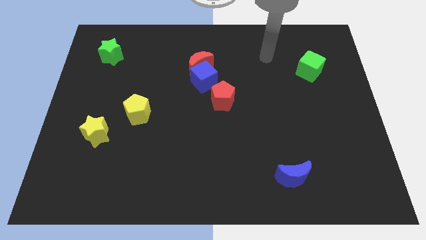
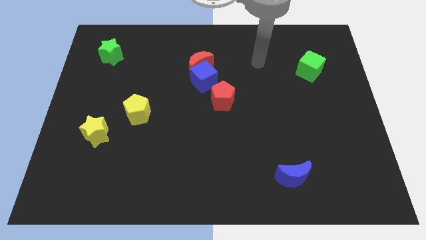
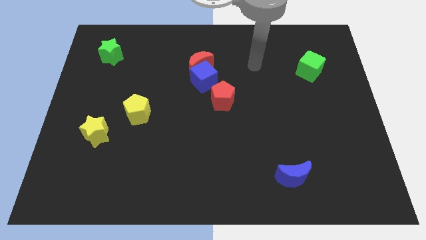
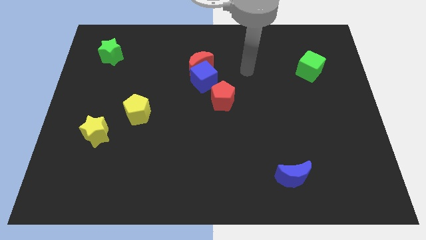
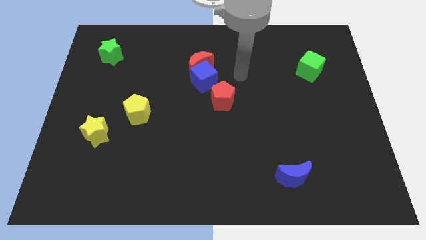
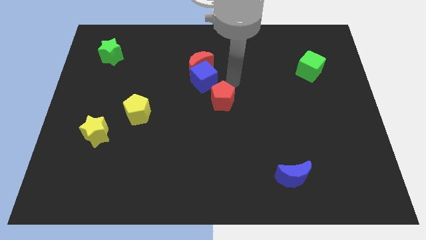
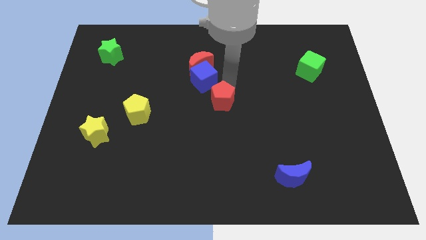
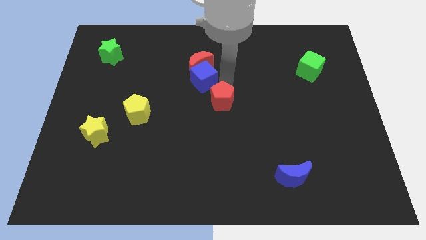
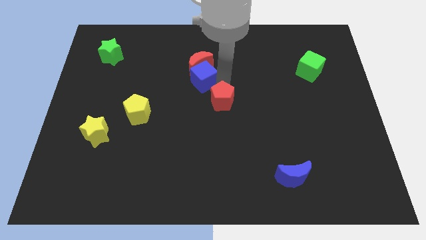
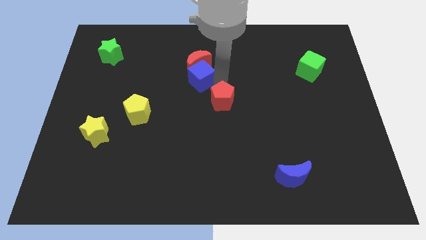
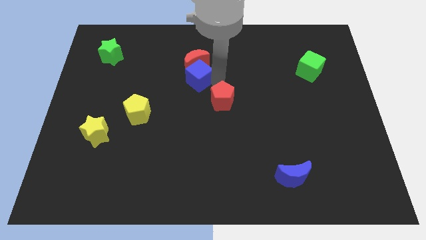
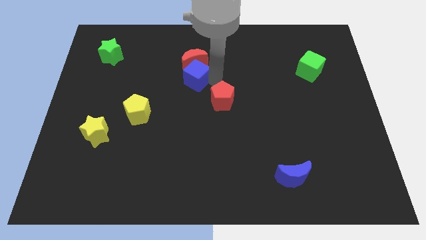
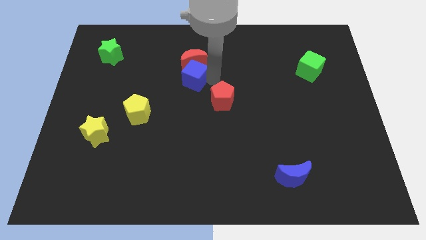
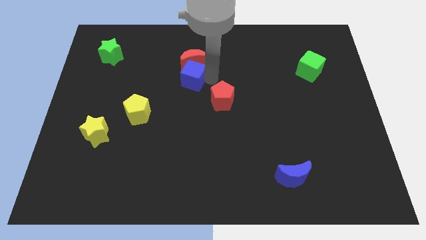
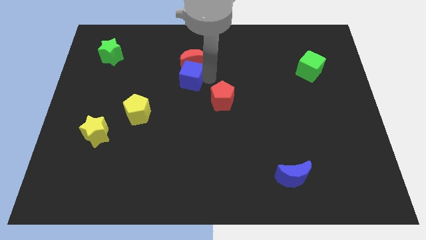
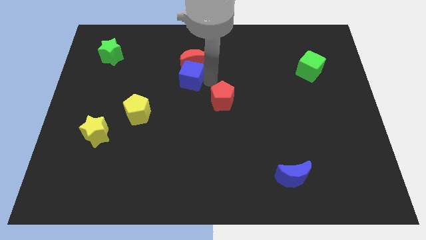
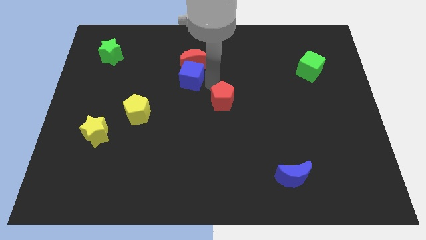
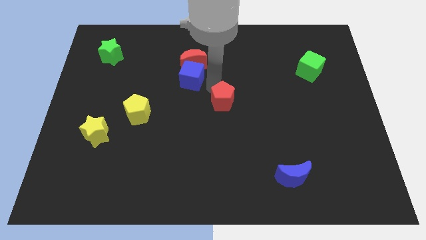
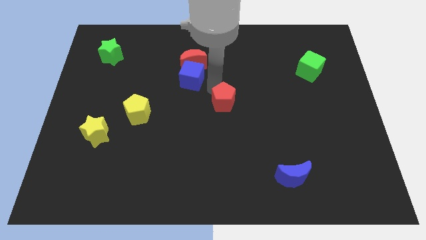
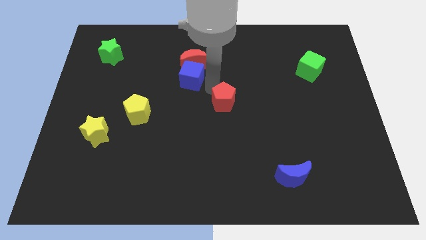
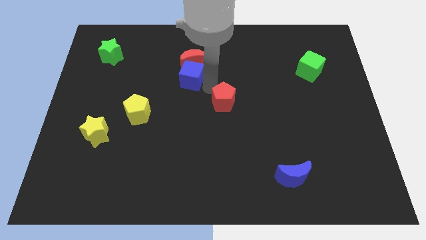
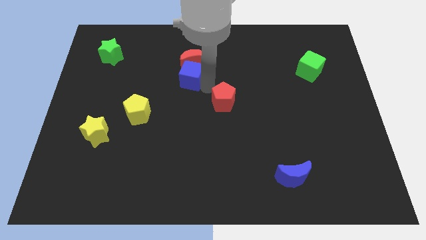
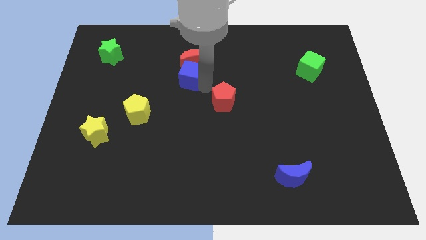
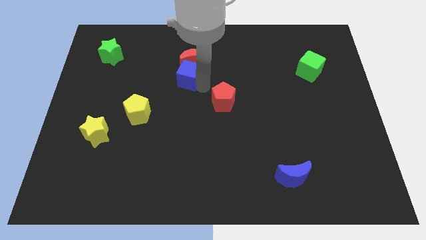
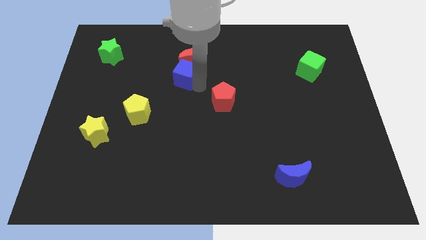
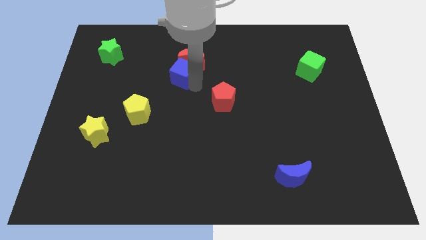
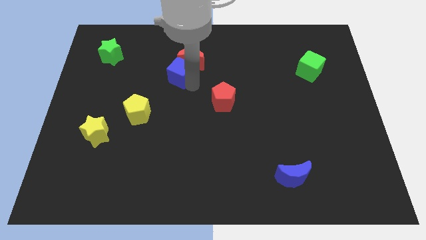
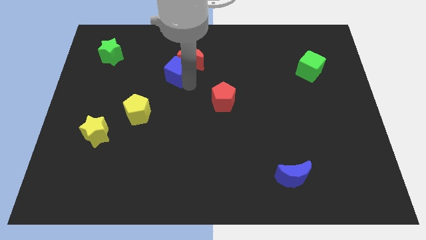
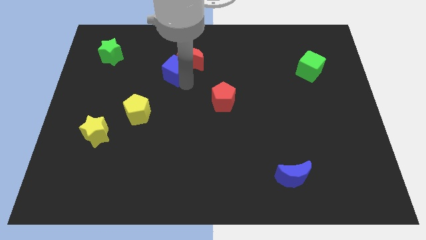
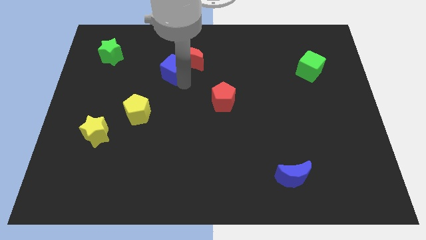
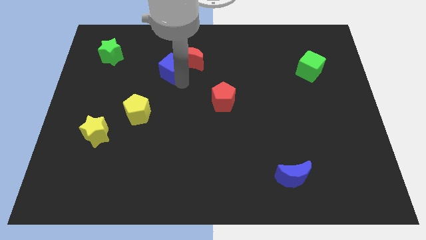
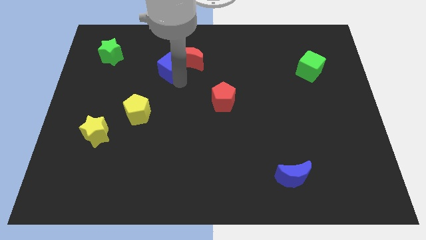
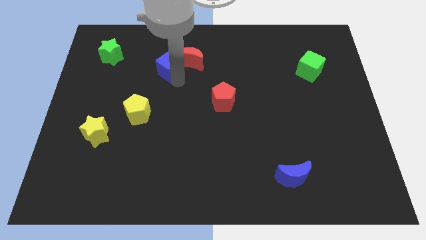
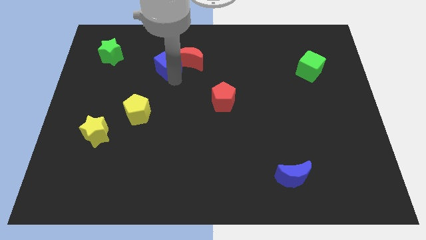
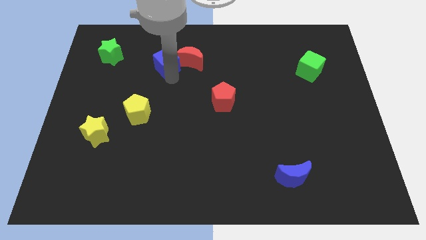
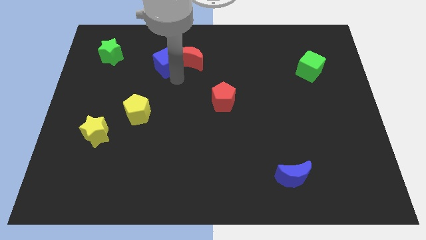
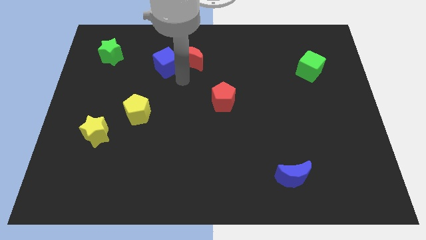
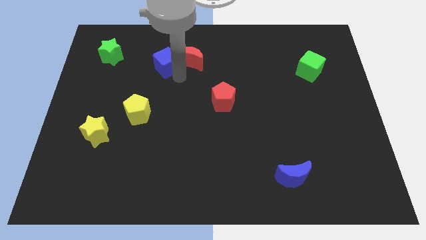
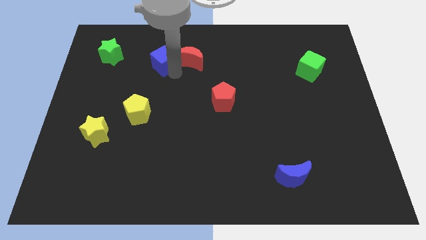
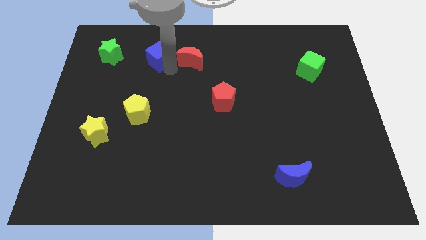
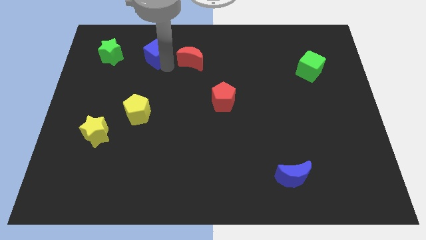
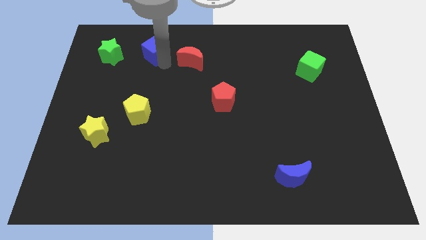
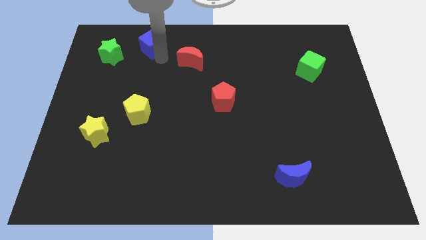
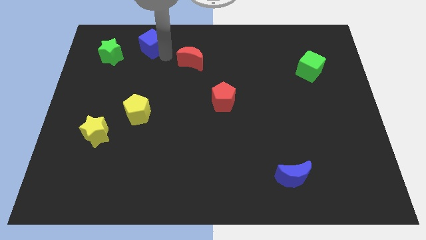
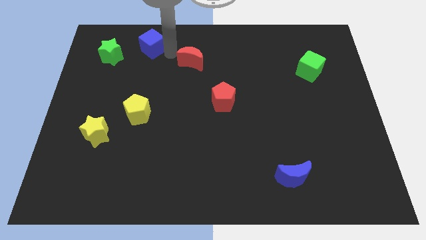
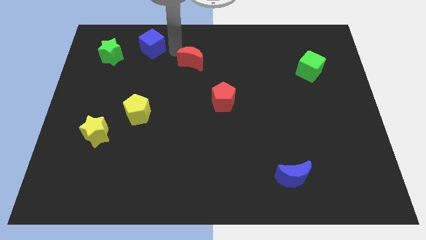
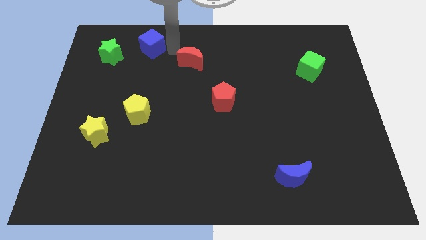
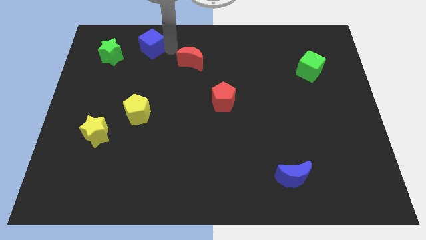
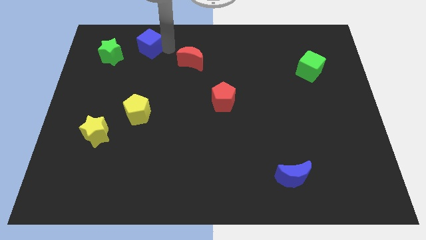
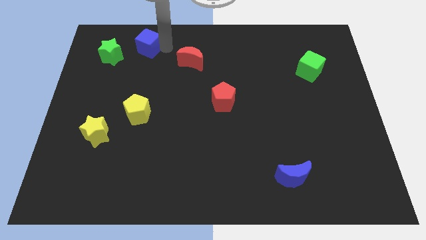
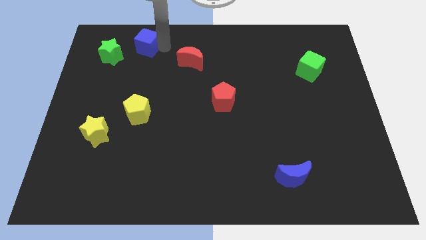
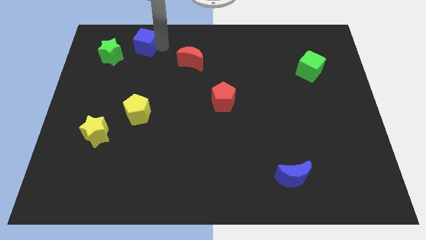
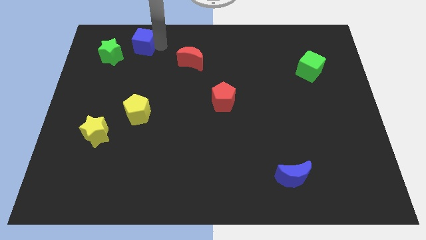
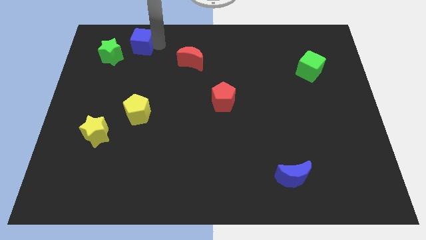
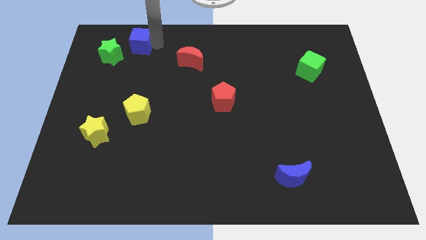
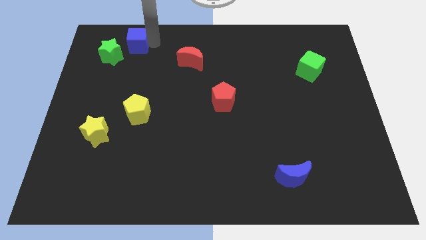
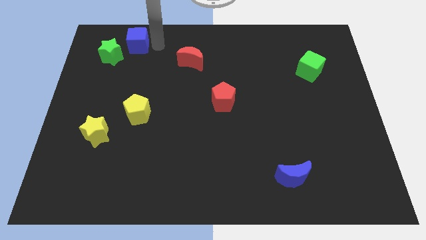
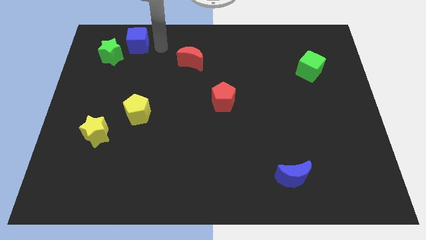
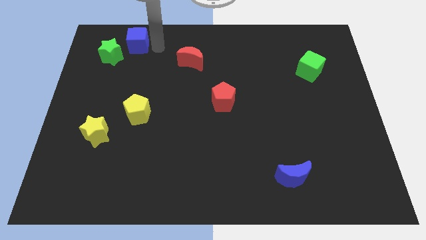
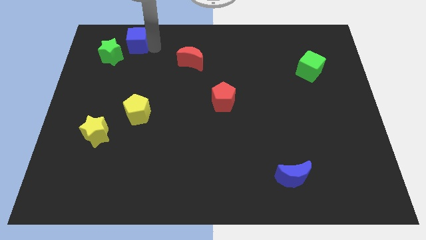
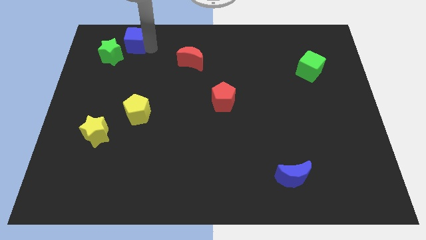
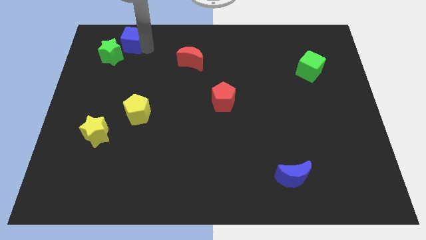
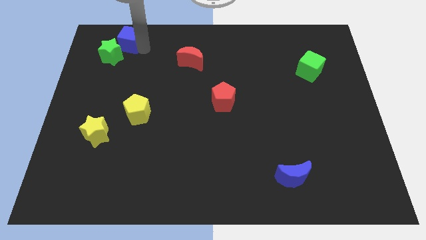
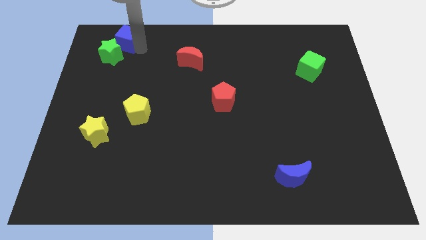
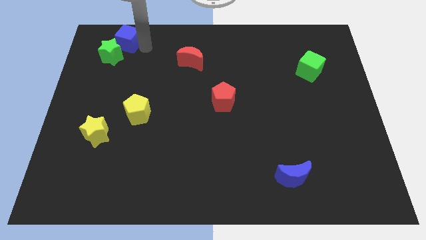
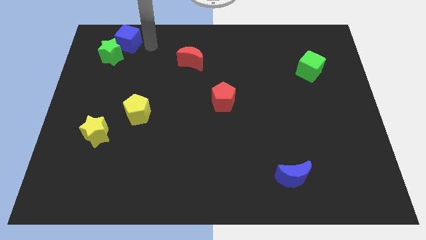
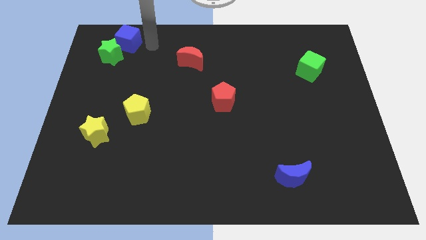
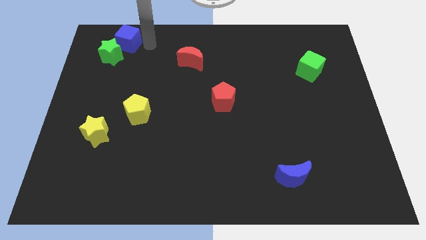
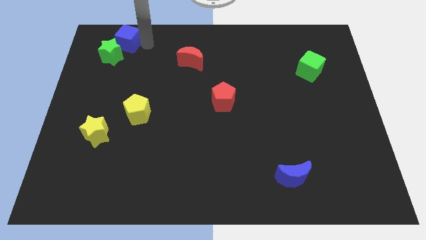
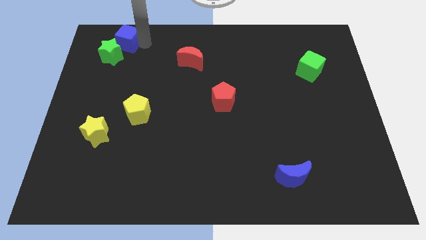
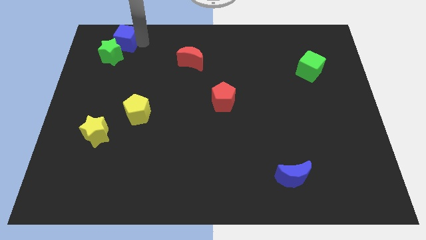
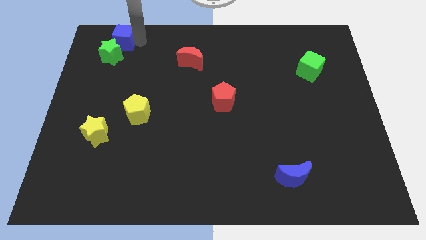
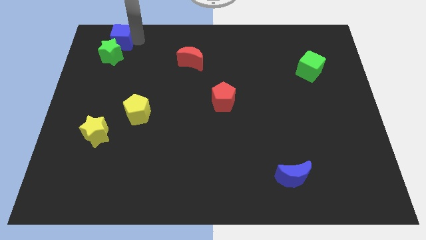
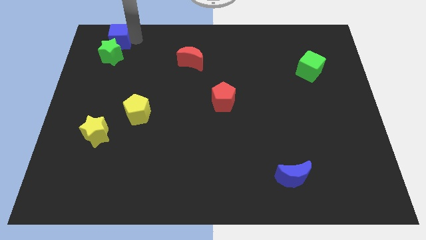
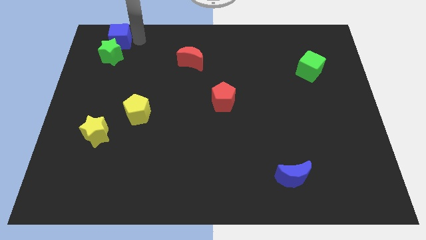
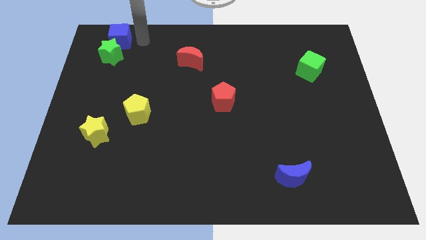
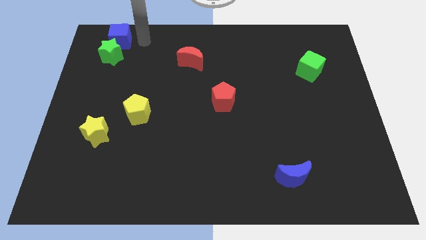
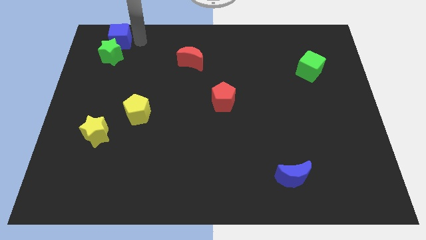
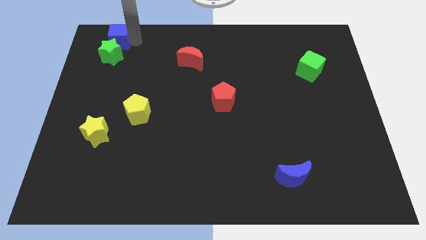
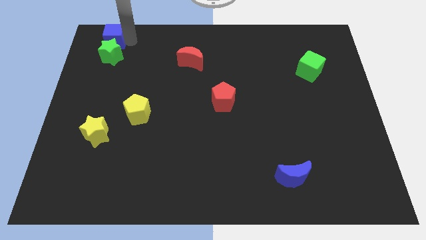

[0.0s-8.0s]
push the blue cube to the top left corner

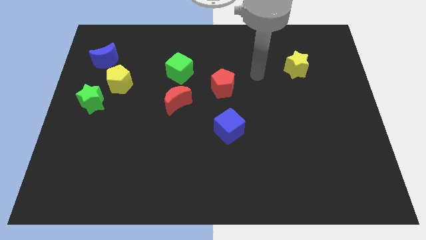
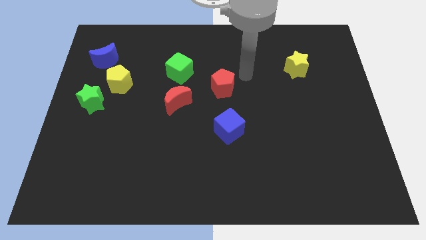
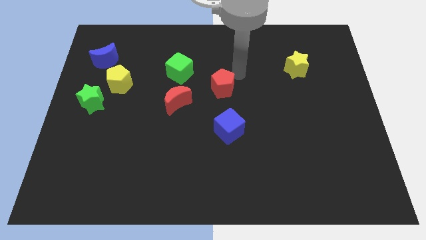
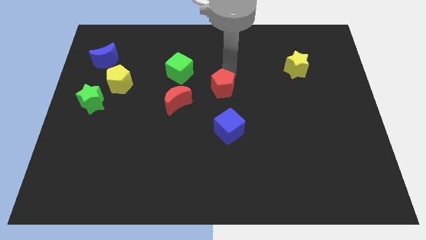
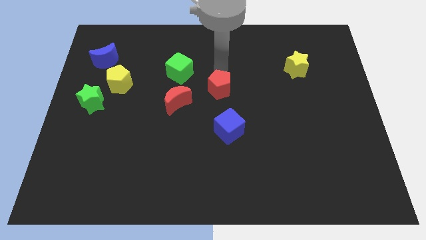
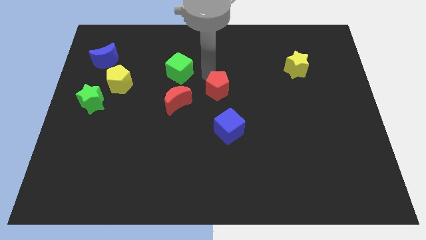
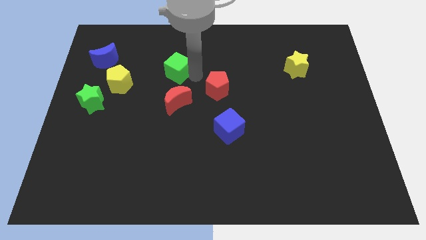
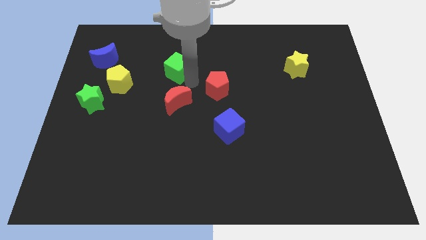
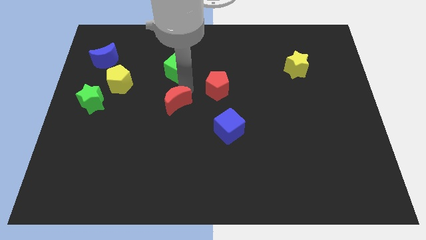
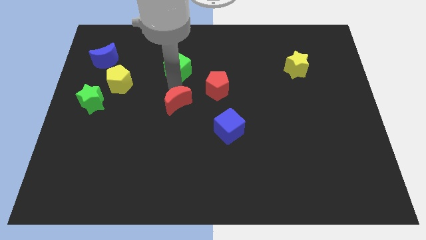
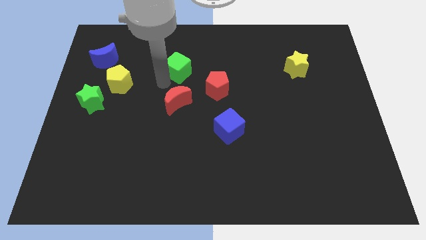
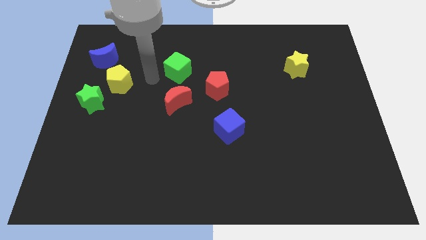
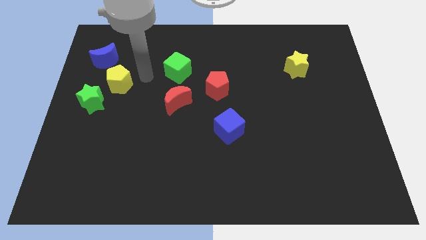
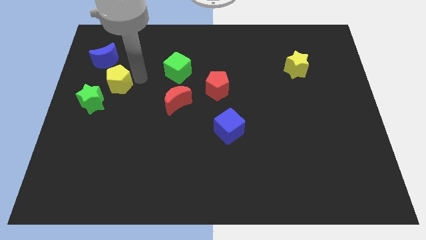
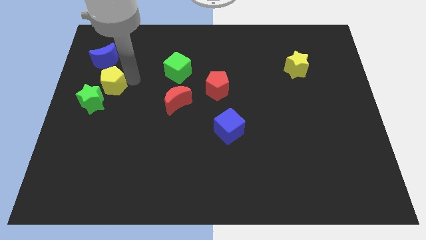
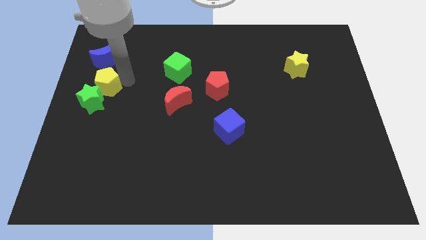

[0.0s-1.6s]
slide the yellow pentagon to the left side of the board
